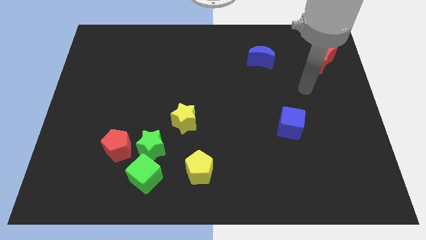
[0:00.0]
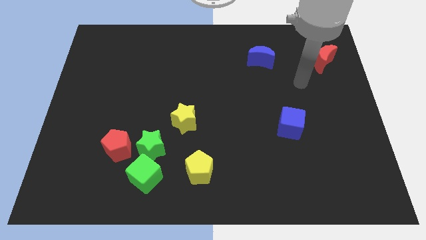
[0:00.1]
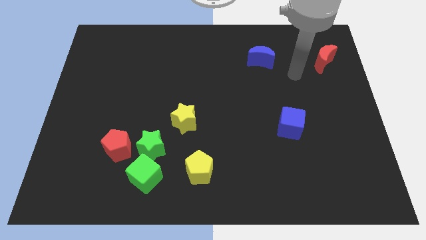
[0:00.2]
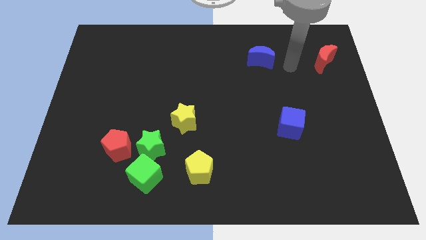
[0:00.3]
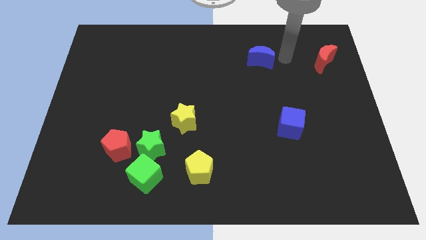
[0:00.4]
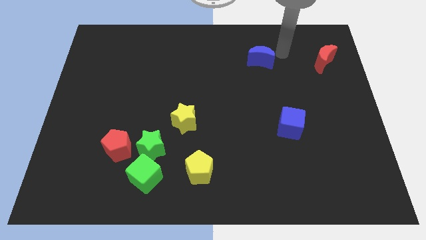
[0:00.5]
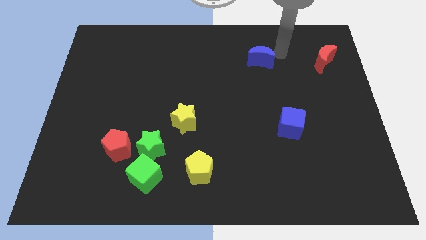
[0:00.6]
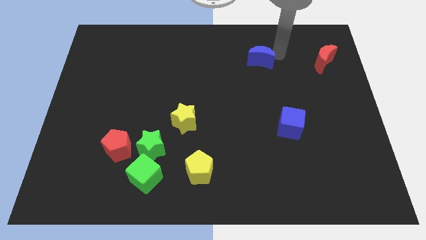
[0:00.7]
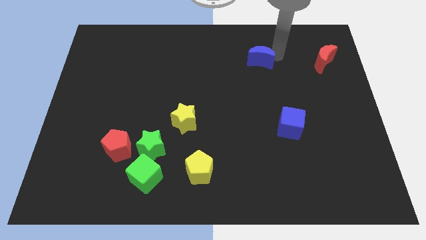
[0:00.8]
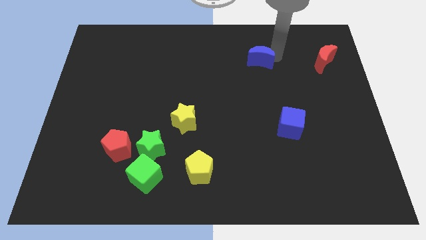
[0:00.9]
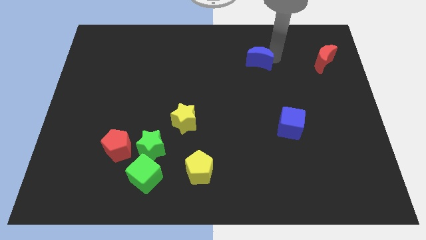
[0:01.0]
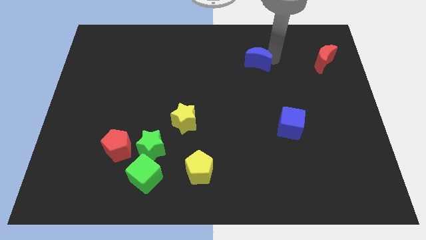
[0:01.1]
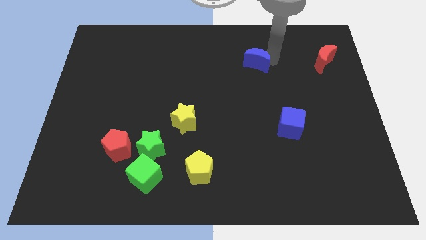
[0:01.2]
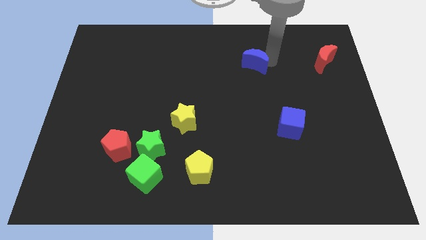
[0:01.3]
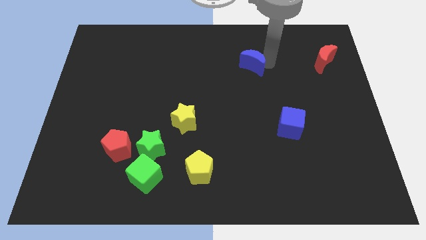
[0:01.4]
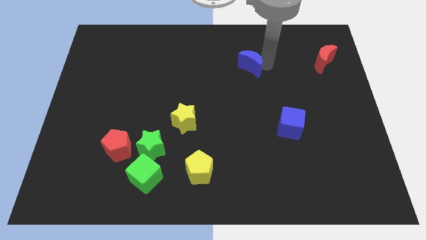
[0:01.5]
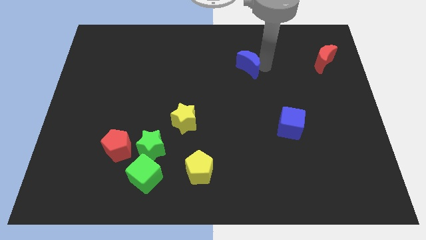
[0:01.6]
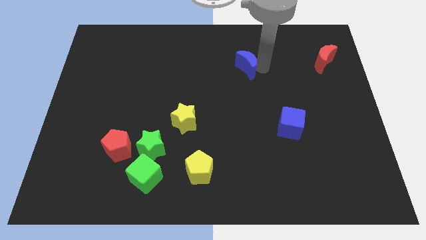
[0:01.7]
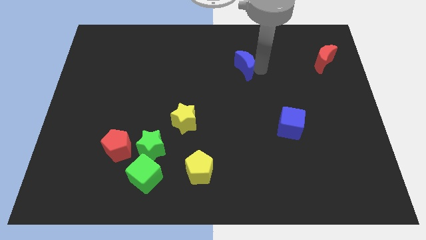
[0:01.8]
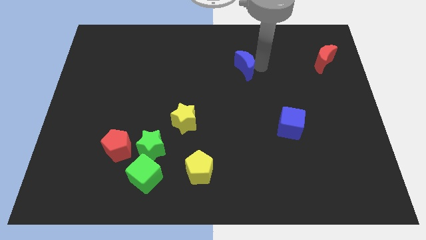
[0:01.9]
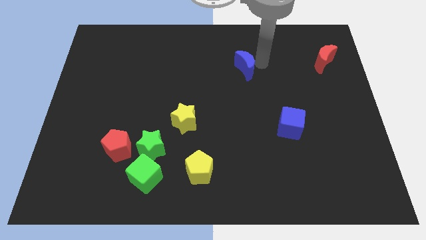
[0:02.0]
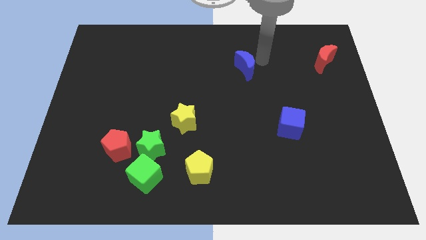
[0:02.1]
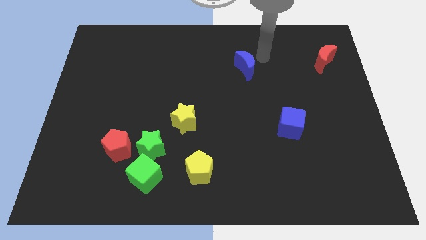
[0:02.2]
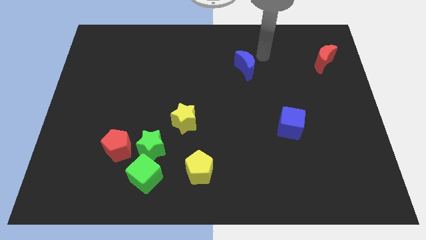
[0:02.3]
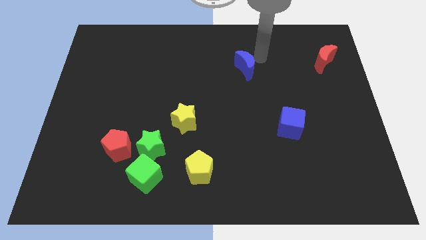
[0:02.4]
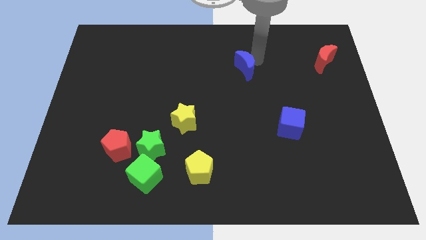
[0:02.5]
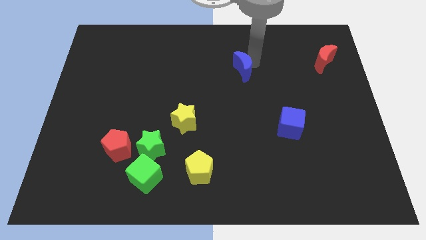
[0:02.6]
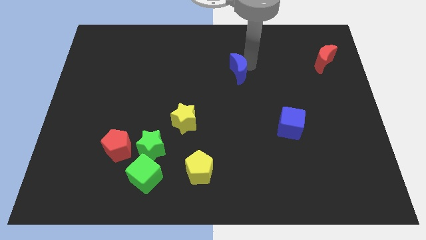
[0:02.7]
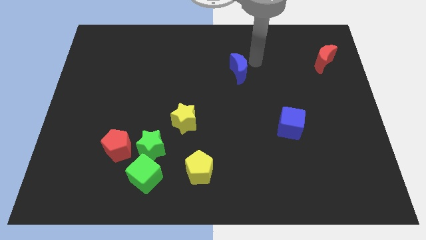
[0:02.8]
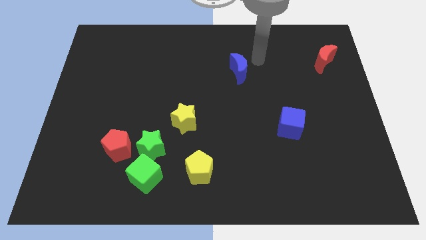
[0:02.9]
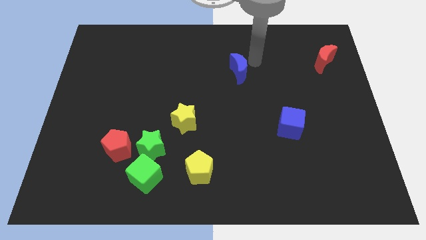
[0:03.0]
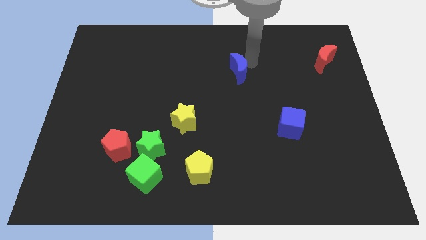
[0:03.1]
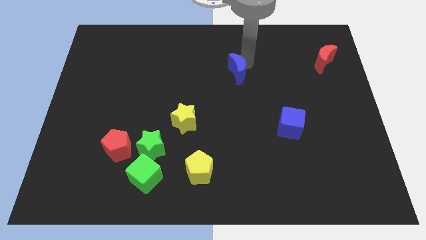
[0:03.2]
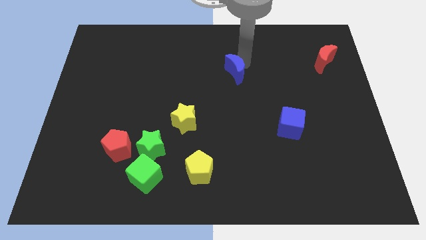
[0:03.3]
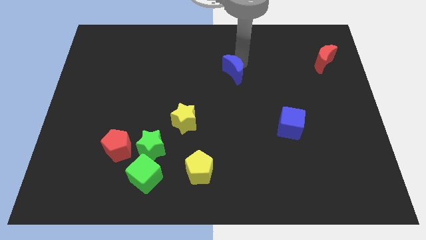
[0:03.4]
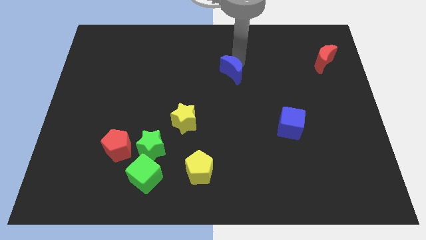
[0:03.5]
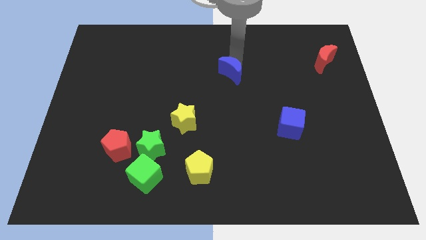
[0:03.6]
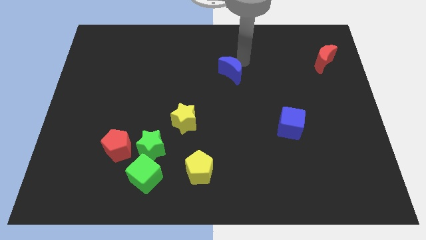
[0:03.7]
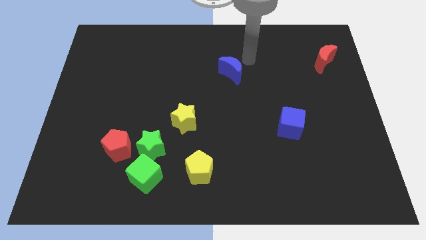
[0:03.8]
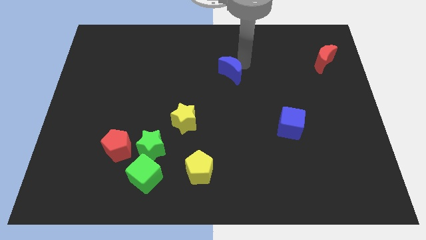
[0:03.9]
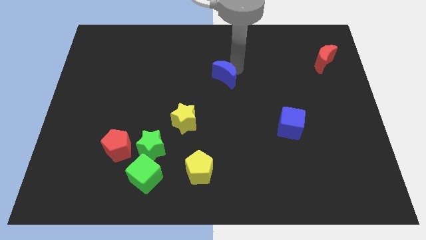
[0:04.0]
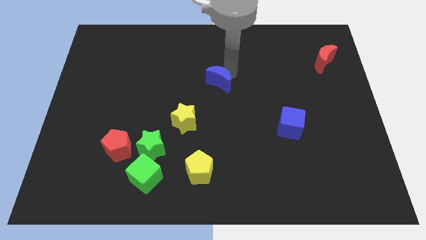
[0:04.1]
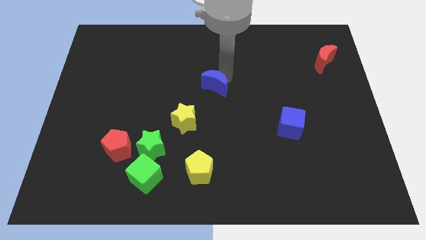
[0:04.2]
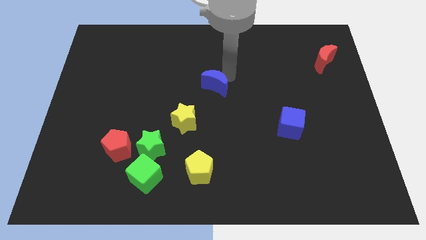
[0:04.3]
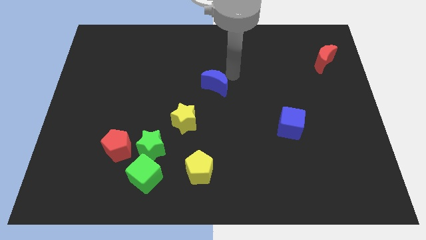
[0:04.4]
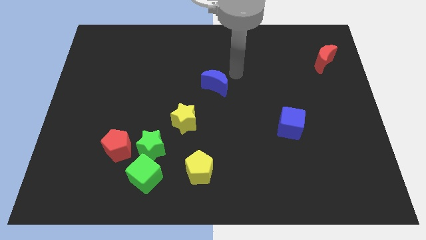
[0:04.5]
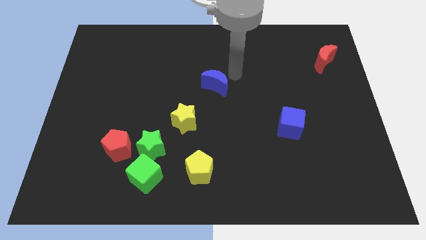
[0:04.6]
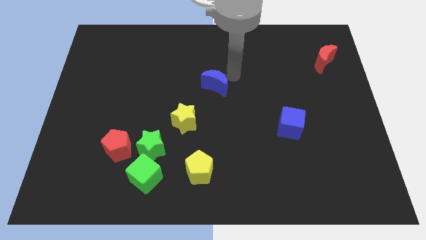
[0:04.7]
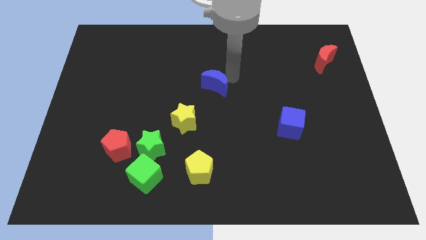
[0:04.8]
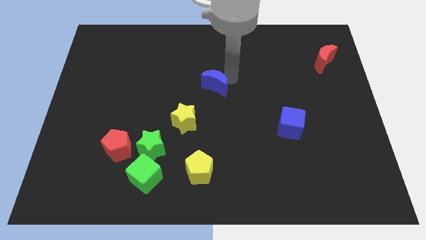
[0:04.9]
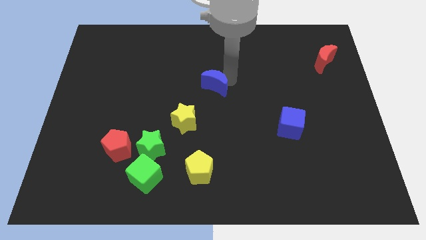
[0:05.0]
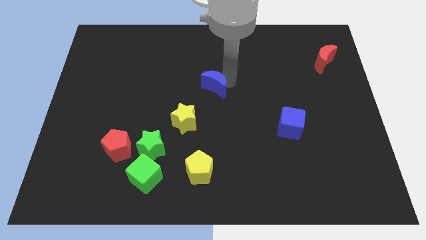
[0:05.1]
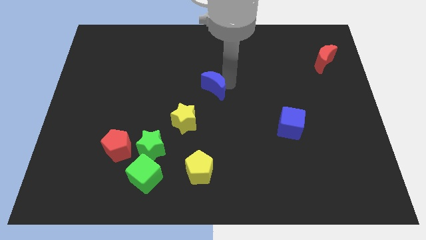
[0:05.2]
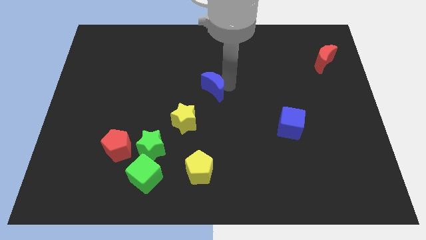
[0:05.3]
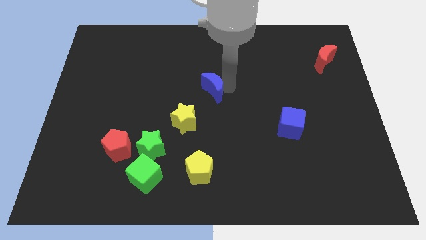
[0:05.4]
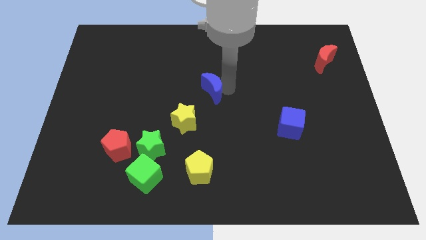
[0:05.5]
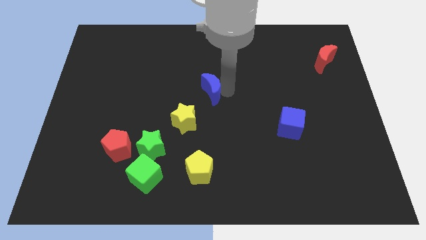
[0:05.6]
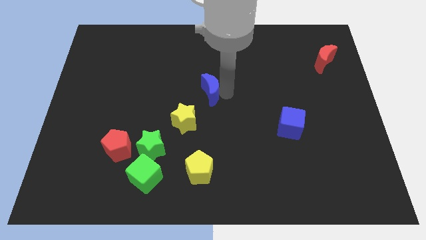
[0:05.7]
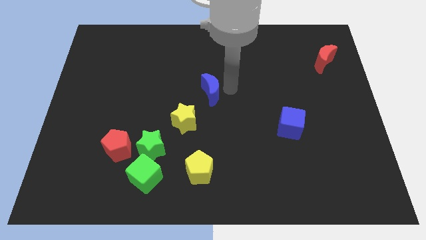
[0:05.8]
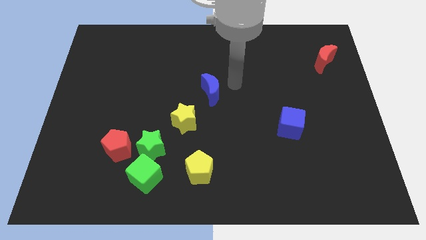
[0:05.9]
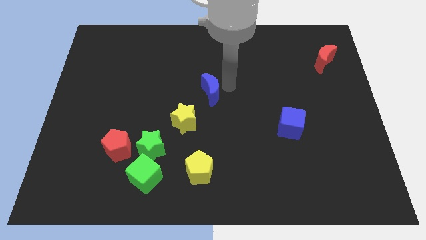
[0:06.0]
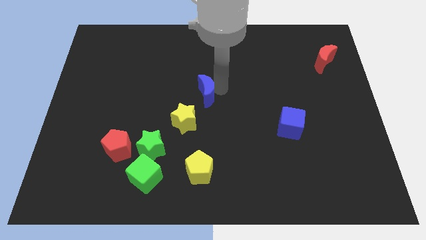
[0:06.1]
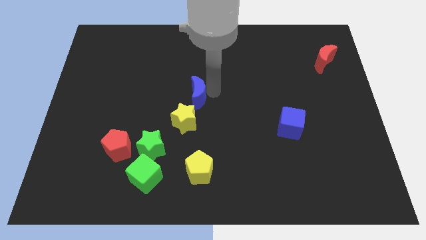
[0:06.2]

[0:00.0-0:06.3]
push the blue moon down and then left

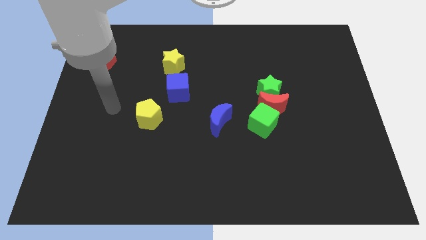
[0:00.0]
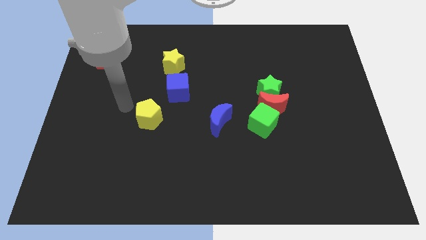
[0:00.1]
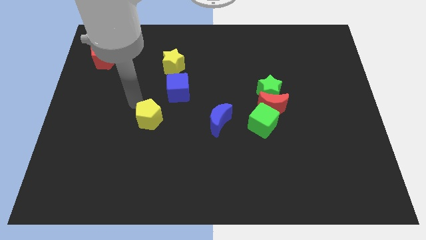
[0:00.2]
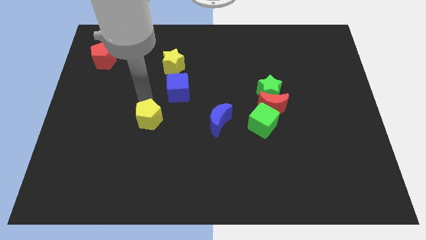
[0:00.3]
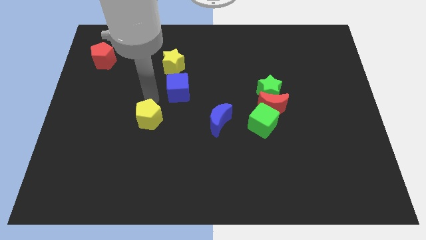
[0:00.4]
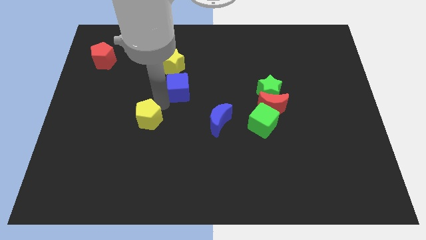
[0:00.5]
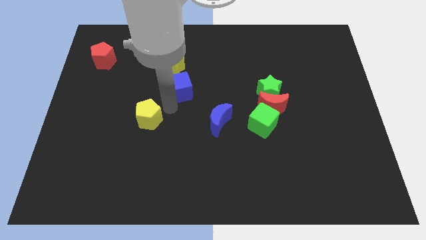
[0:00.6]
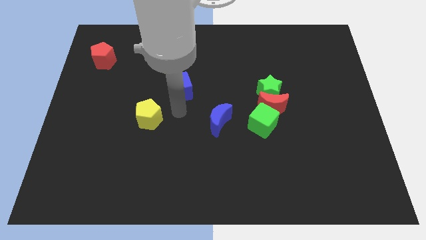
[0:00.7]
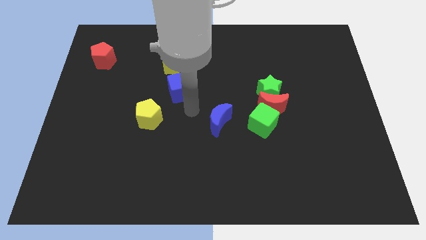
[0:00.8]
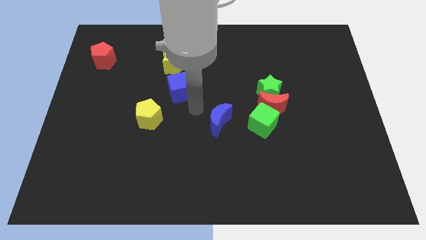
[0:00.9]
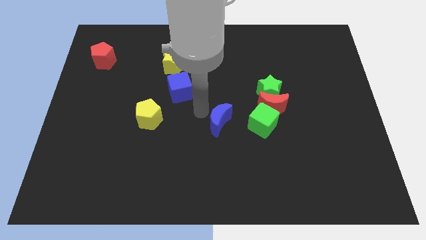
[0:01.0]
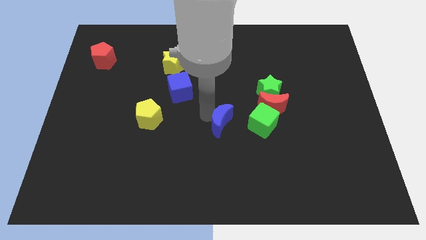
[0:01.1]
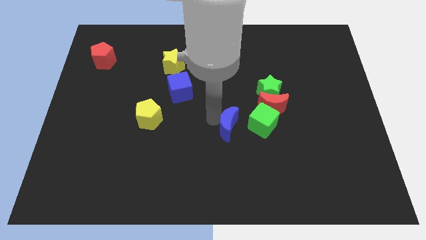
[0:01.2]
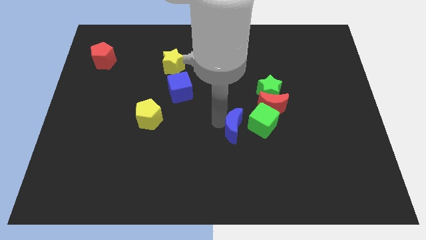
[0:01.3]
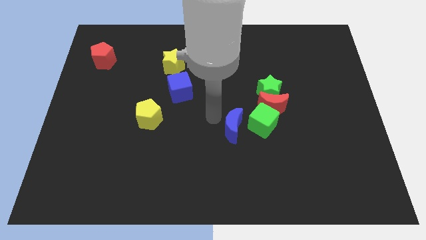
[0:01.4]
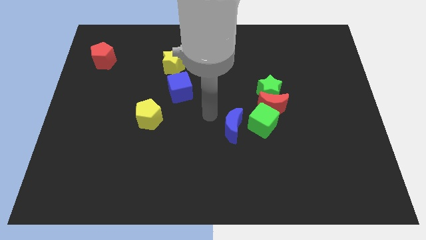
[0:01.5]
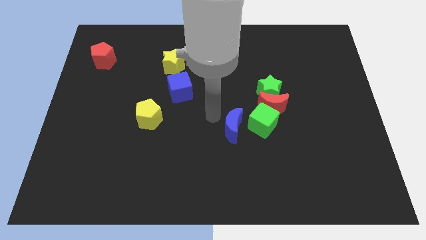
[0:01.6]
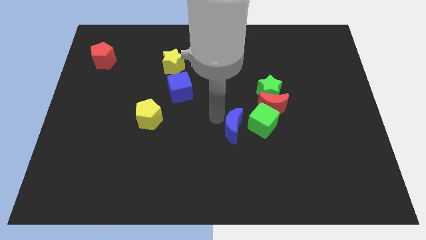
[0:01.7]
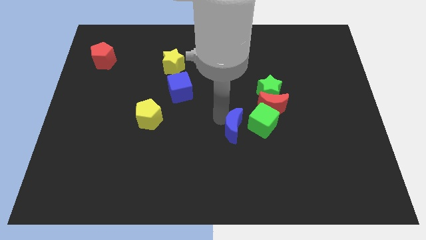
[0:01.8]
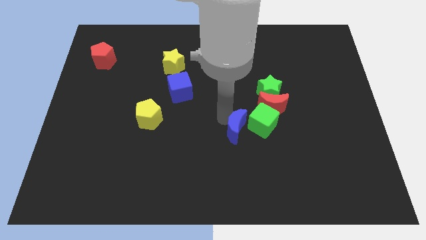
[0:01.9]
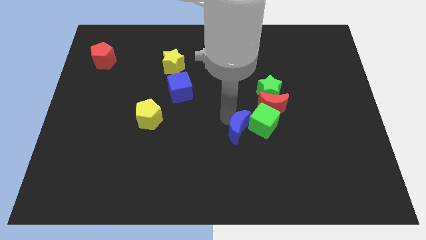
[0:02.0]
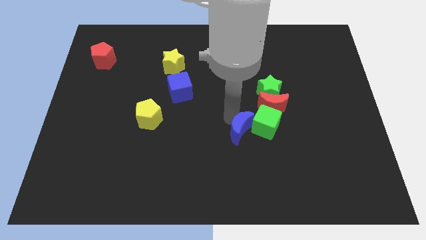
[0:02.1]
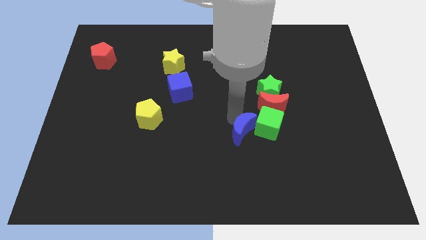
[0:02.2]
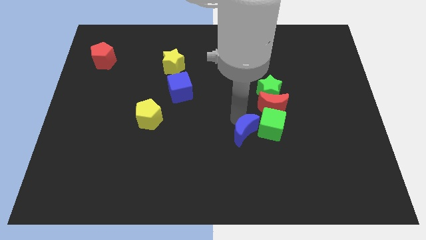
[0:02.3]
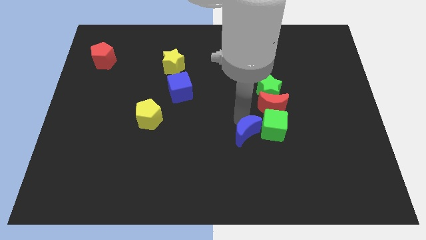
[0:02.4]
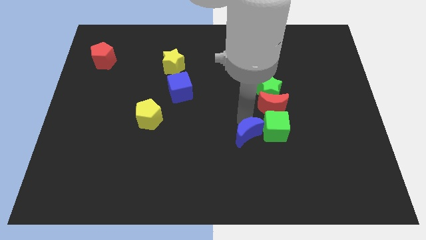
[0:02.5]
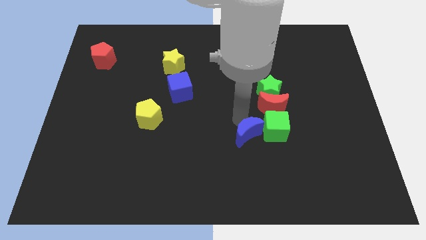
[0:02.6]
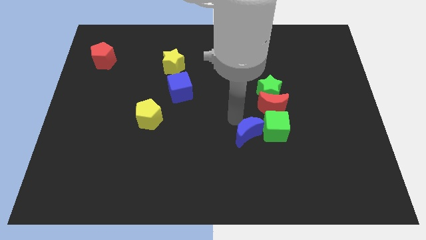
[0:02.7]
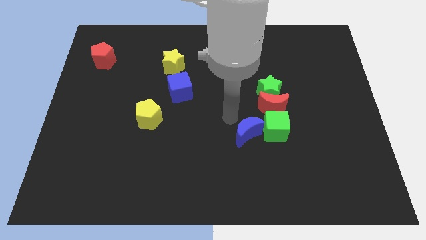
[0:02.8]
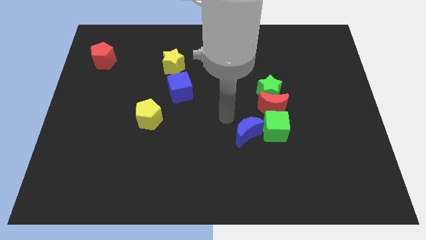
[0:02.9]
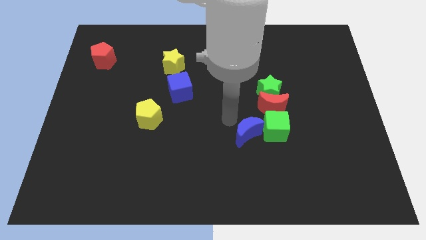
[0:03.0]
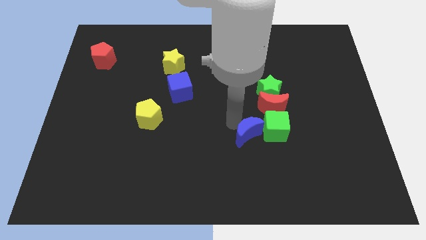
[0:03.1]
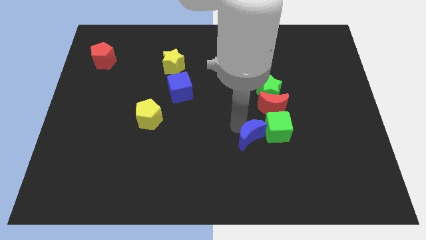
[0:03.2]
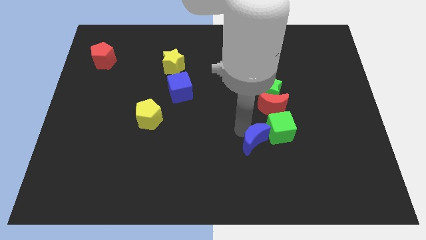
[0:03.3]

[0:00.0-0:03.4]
push the blue moon right slightly
